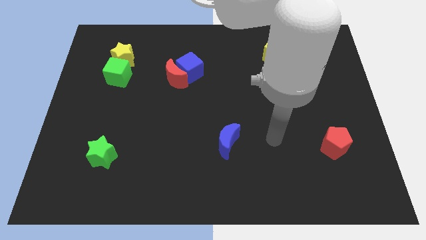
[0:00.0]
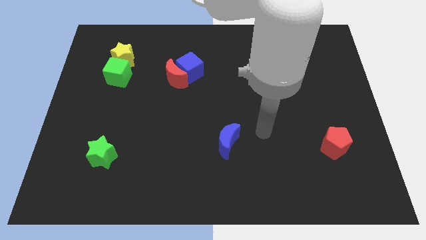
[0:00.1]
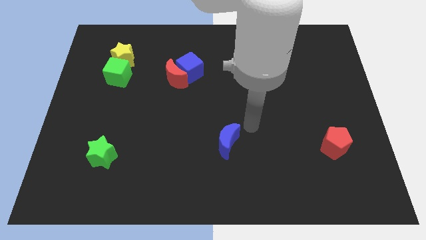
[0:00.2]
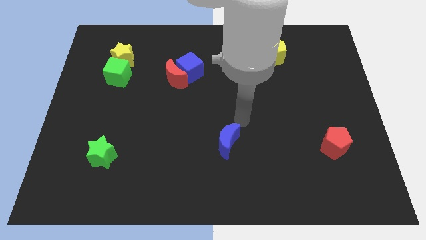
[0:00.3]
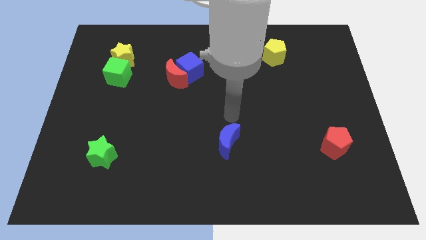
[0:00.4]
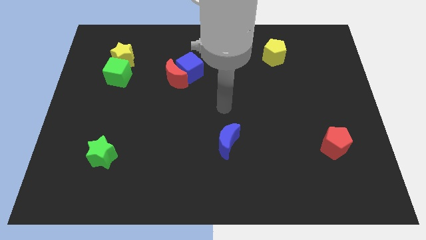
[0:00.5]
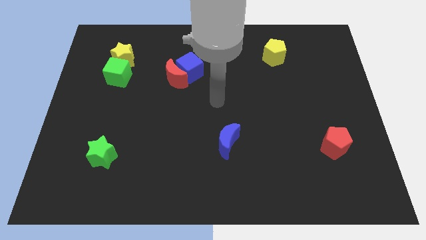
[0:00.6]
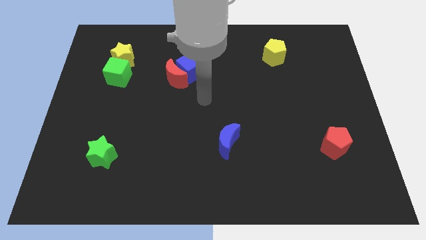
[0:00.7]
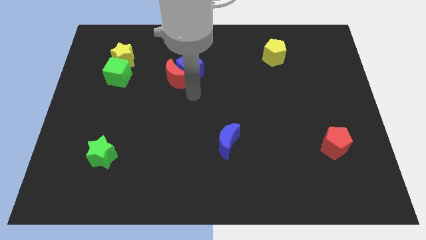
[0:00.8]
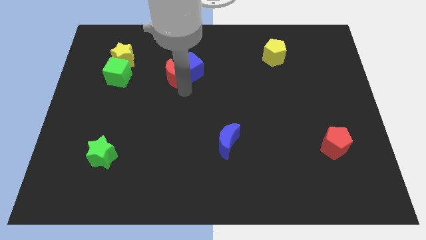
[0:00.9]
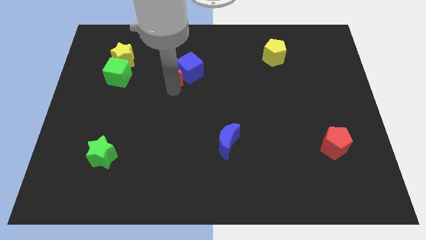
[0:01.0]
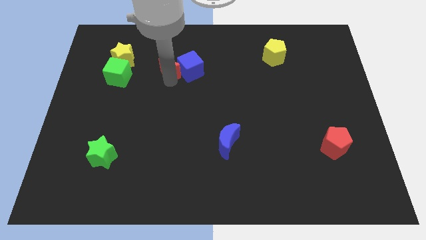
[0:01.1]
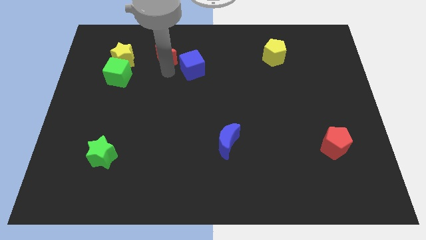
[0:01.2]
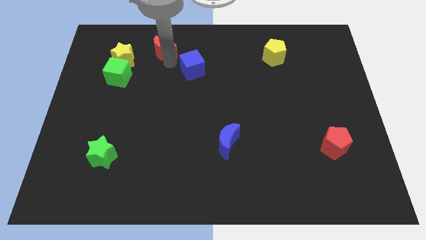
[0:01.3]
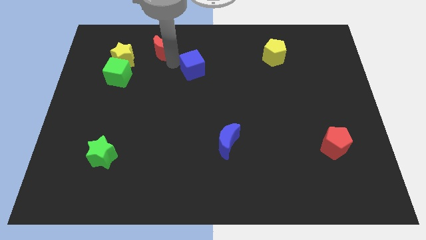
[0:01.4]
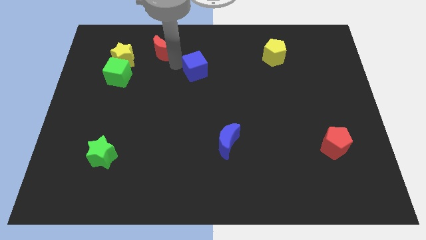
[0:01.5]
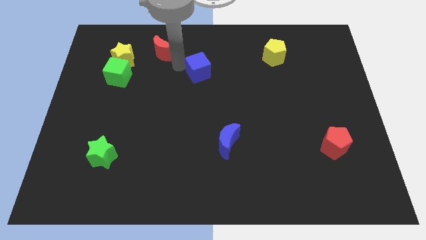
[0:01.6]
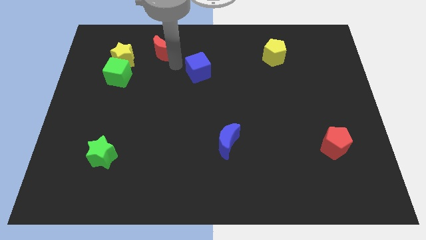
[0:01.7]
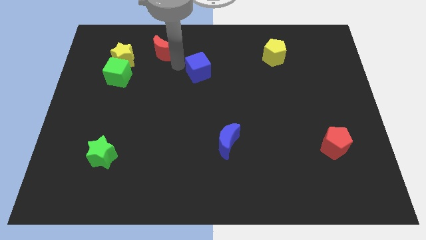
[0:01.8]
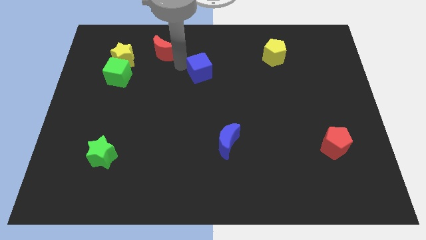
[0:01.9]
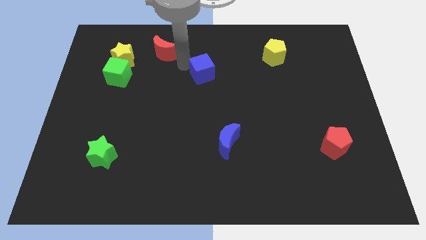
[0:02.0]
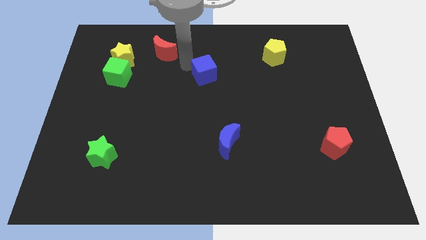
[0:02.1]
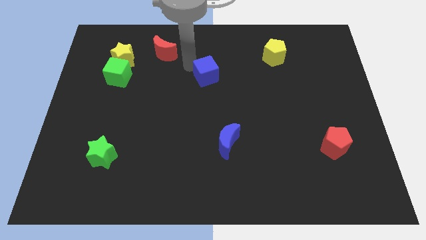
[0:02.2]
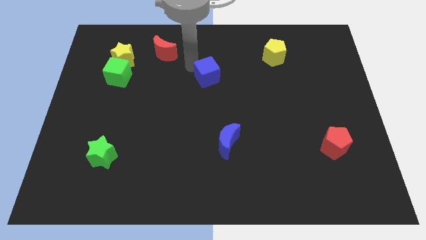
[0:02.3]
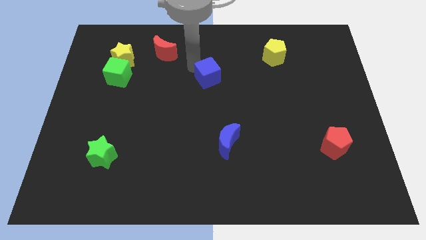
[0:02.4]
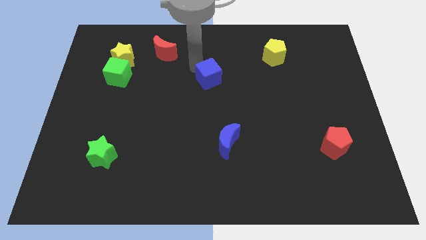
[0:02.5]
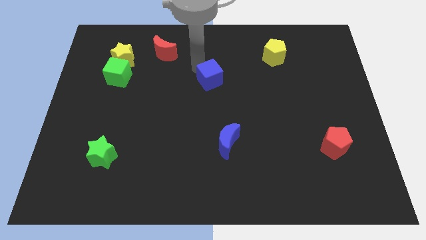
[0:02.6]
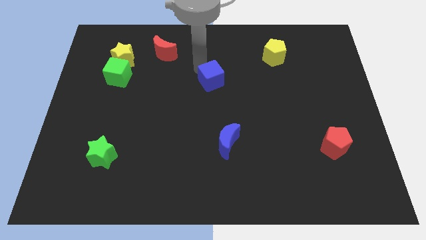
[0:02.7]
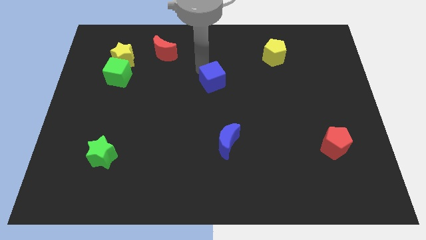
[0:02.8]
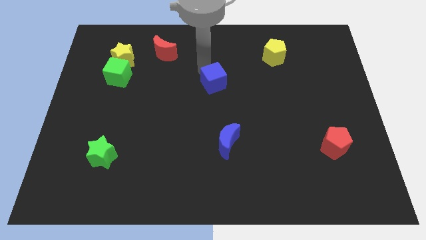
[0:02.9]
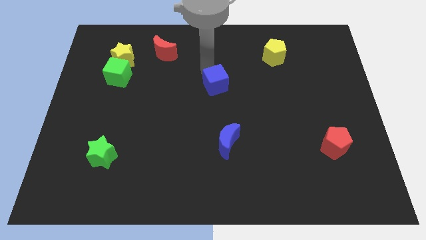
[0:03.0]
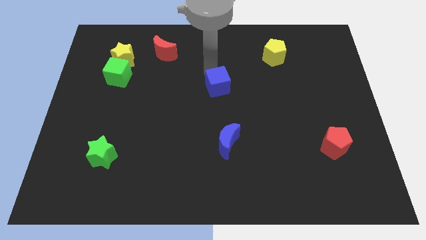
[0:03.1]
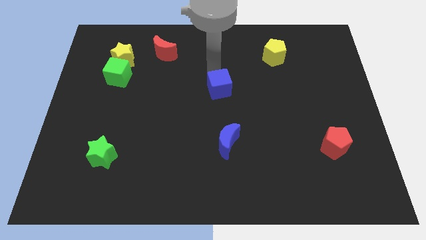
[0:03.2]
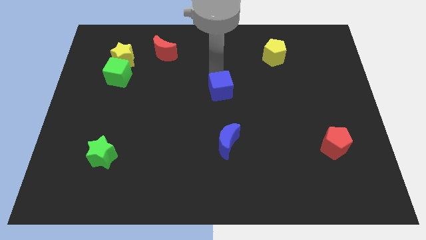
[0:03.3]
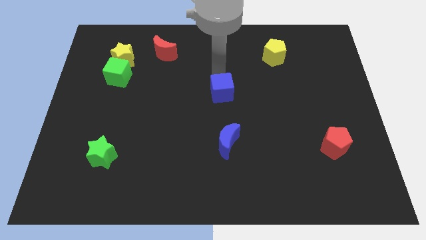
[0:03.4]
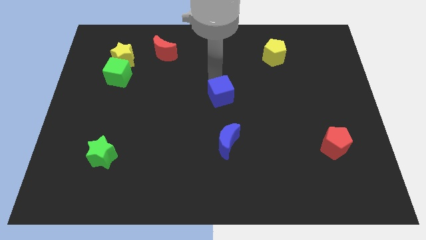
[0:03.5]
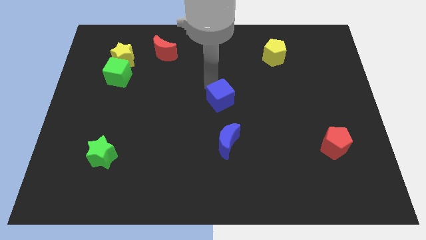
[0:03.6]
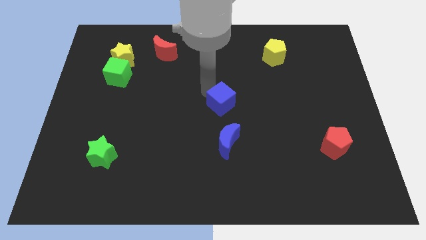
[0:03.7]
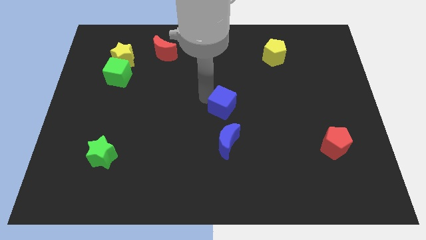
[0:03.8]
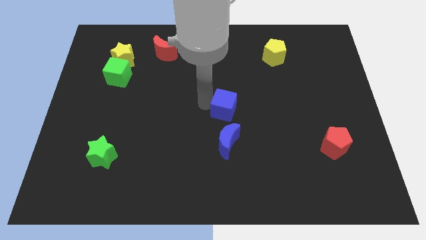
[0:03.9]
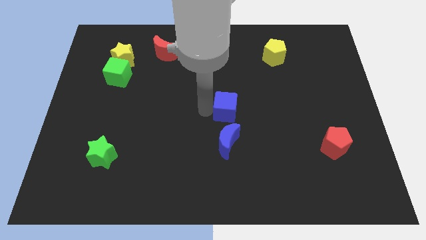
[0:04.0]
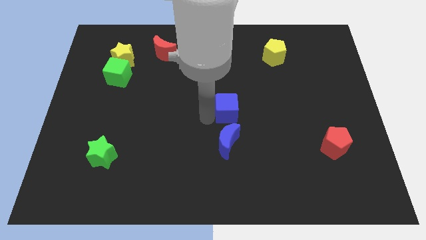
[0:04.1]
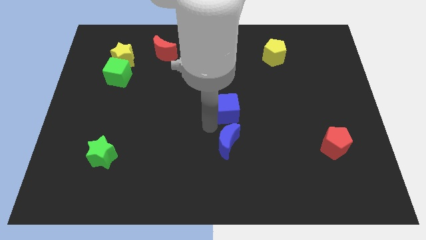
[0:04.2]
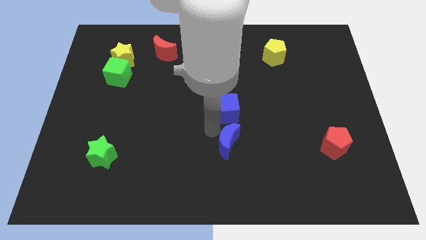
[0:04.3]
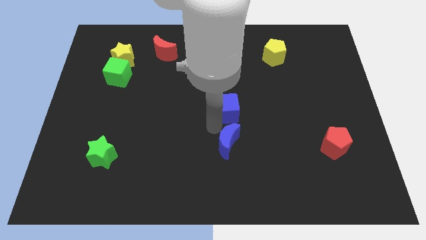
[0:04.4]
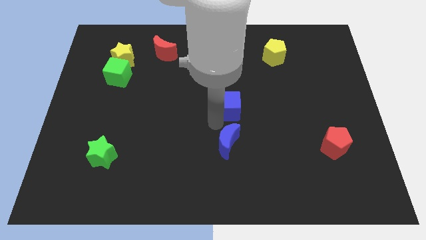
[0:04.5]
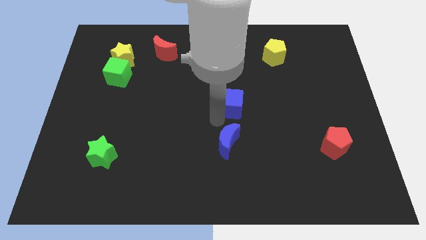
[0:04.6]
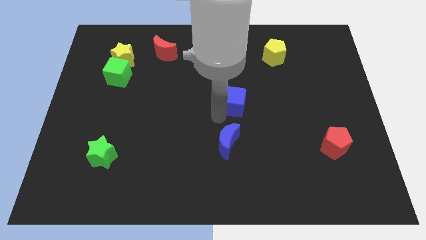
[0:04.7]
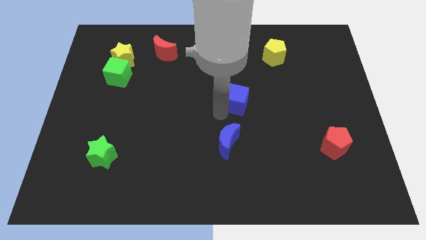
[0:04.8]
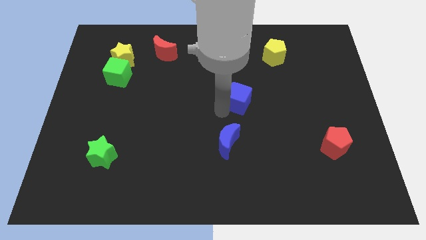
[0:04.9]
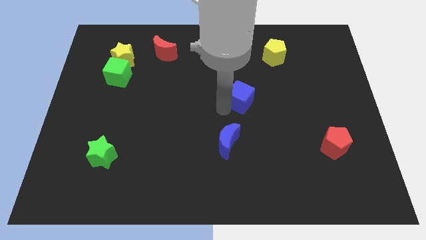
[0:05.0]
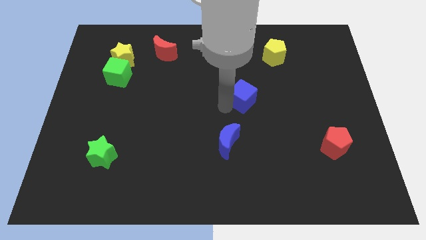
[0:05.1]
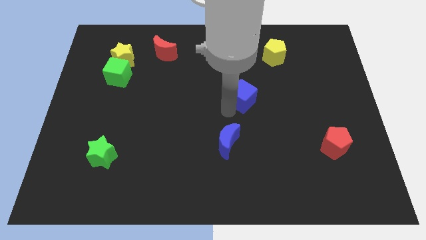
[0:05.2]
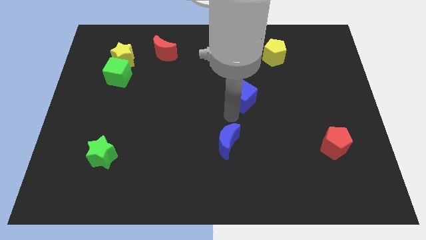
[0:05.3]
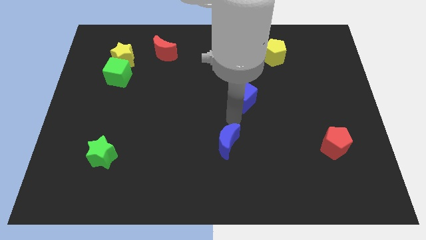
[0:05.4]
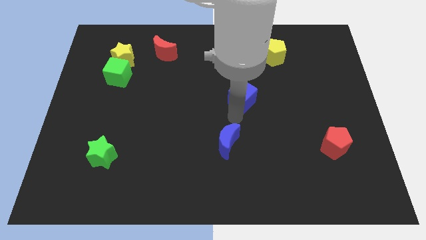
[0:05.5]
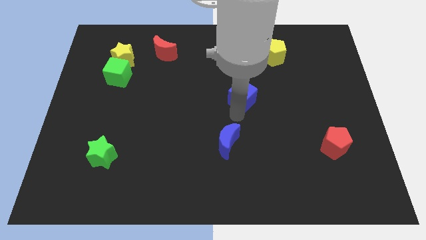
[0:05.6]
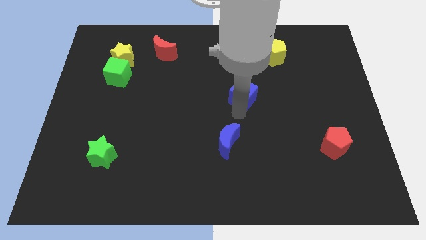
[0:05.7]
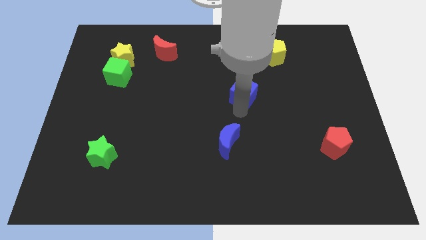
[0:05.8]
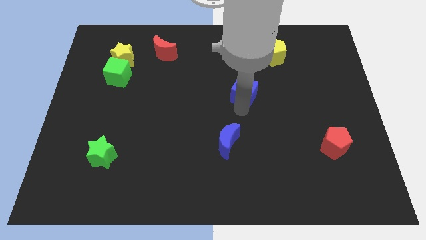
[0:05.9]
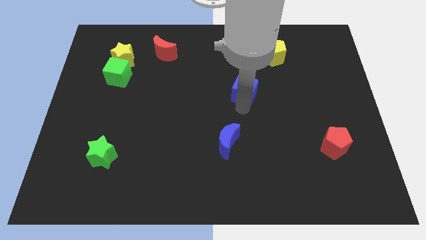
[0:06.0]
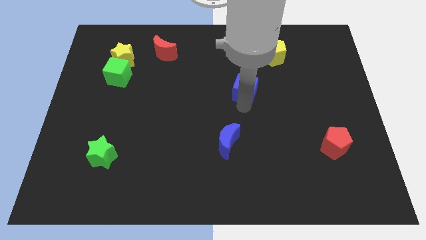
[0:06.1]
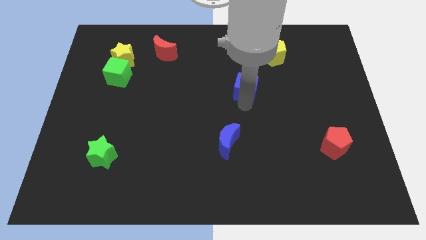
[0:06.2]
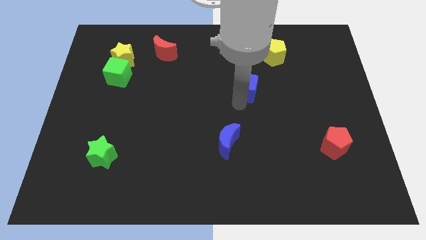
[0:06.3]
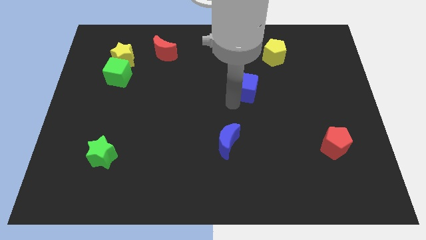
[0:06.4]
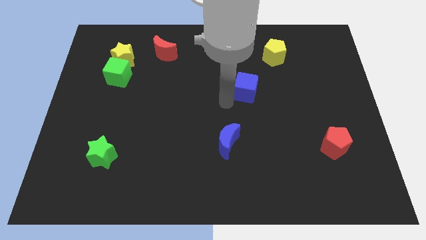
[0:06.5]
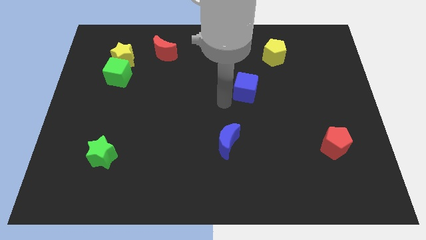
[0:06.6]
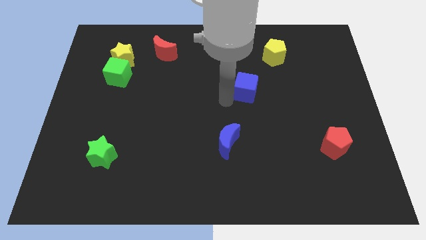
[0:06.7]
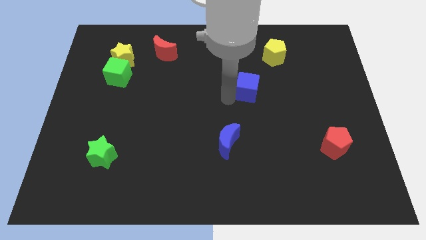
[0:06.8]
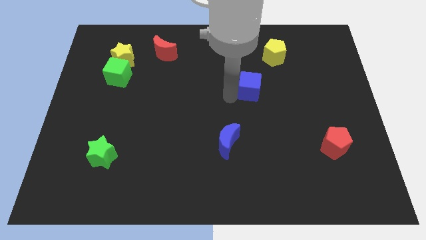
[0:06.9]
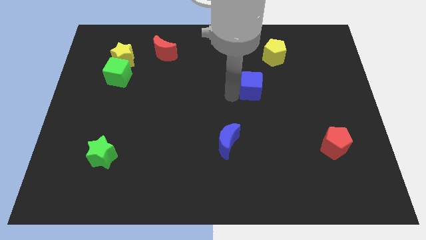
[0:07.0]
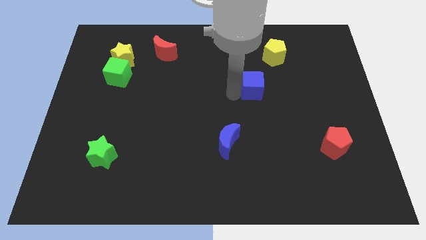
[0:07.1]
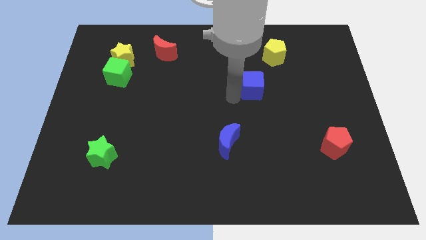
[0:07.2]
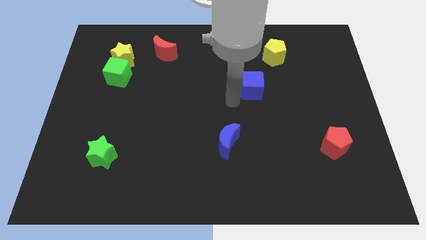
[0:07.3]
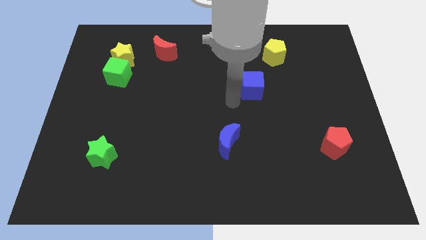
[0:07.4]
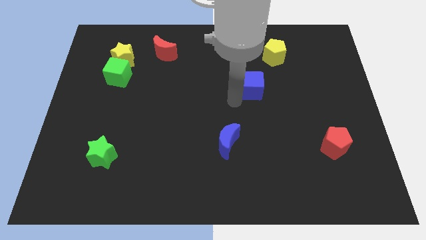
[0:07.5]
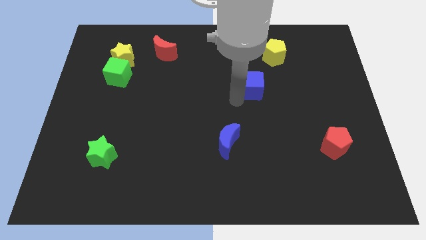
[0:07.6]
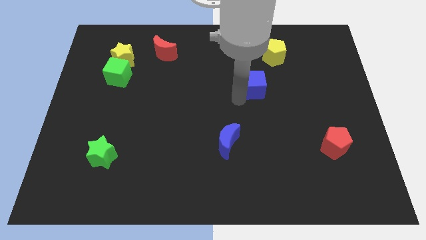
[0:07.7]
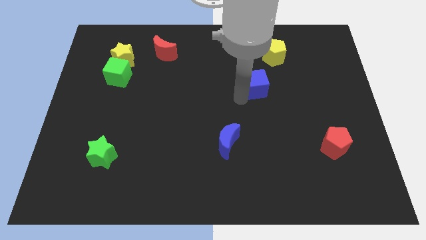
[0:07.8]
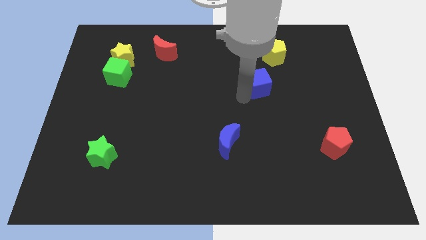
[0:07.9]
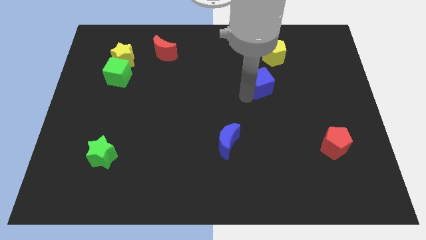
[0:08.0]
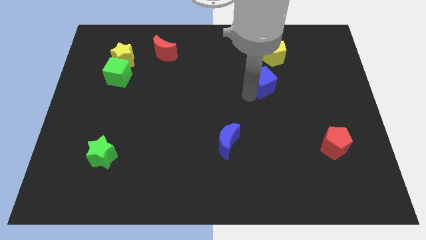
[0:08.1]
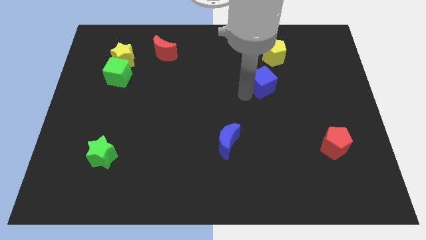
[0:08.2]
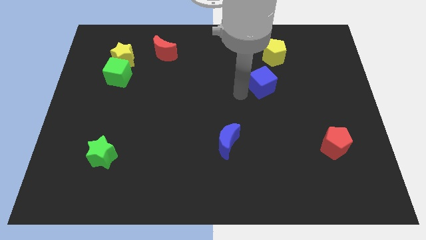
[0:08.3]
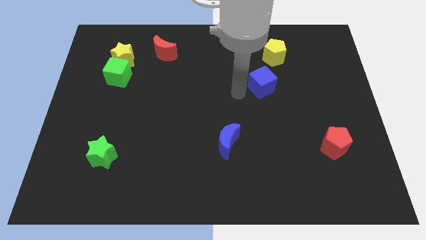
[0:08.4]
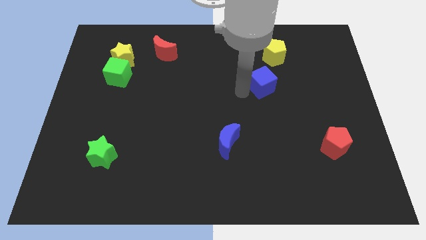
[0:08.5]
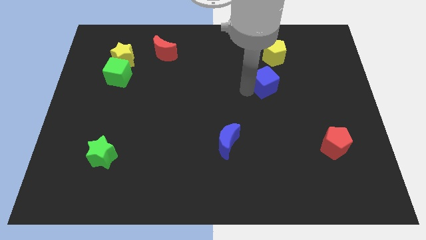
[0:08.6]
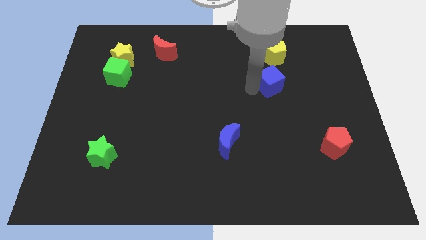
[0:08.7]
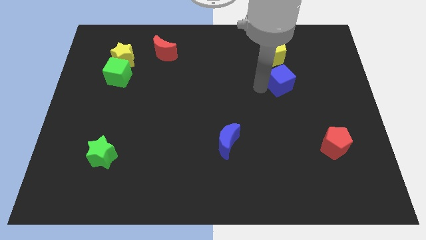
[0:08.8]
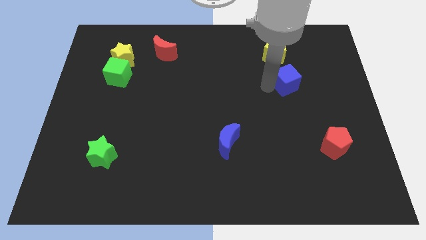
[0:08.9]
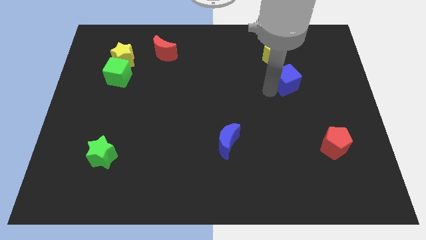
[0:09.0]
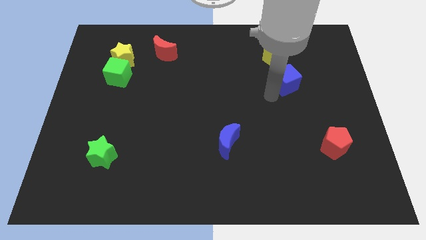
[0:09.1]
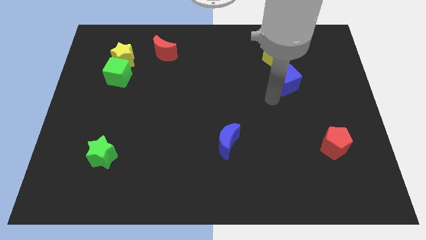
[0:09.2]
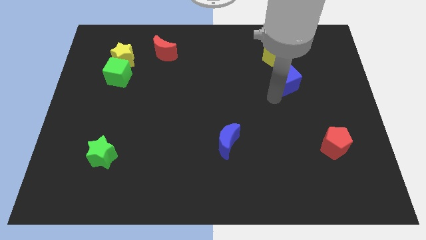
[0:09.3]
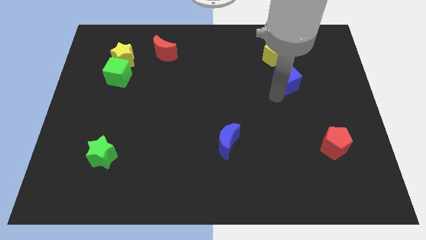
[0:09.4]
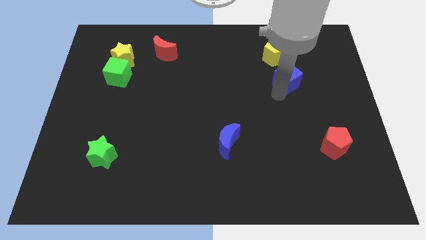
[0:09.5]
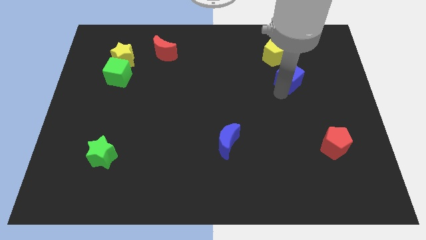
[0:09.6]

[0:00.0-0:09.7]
push the blue cube to the bottom right of the yellow pentagon
